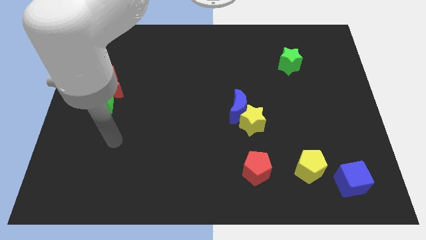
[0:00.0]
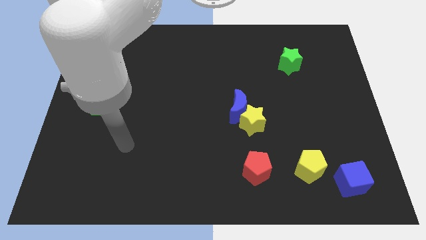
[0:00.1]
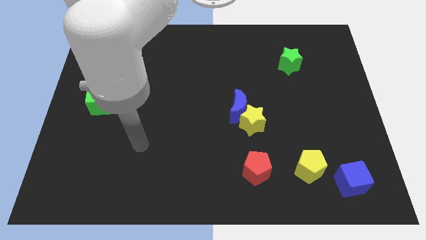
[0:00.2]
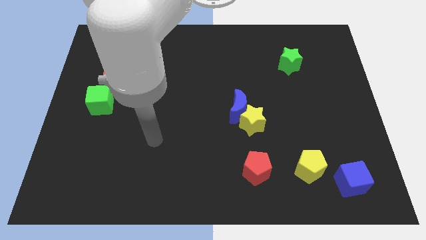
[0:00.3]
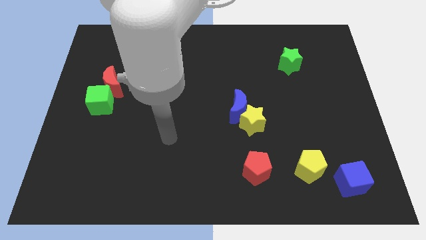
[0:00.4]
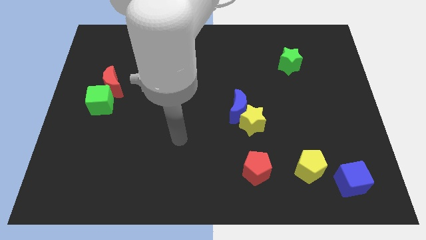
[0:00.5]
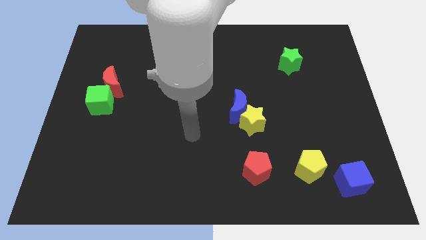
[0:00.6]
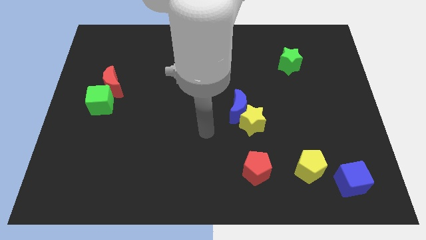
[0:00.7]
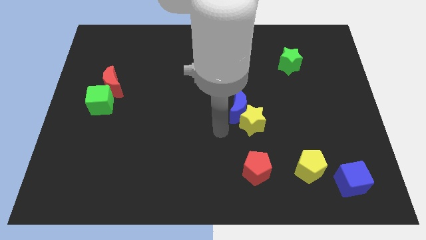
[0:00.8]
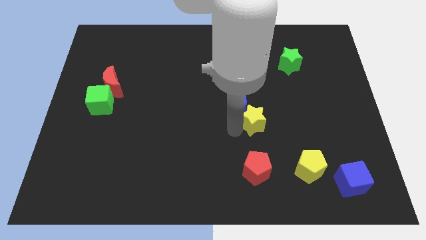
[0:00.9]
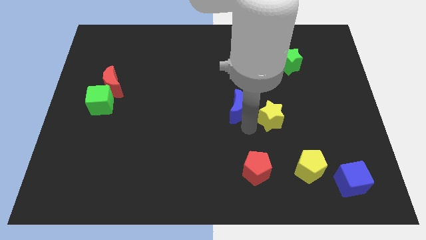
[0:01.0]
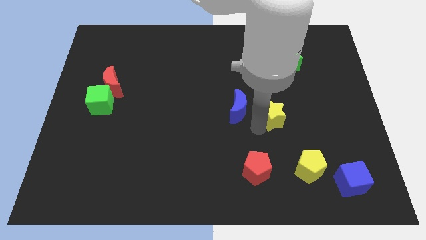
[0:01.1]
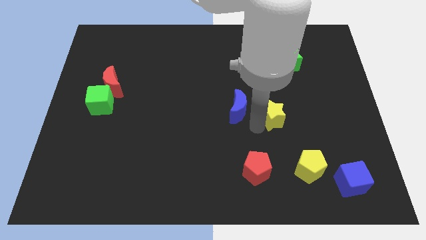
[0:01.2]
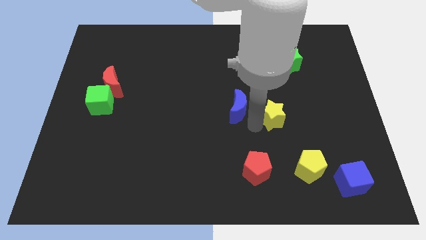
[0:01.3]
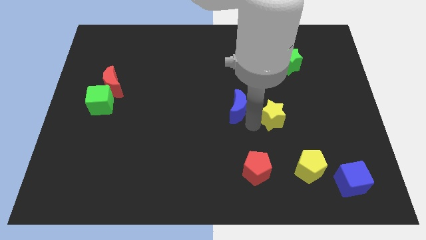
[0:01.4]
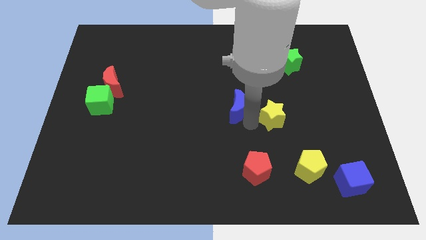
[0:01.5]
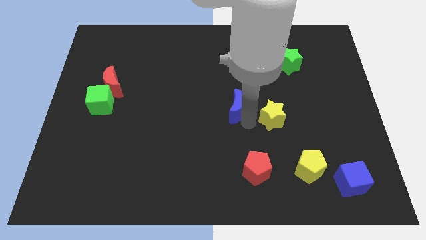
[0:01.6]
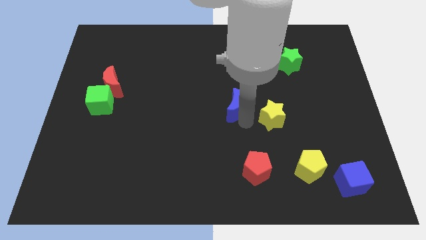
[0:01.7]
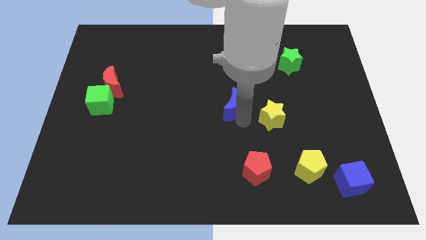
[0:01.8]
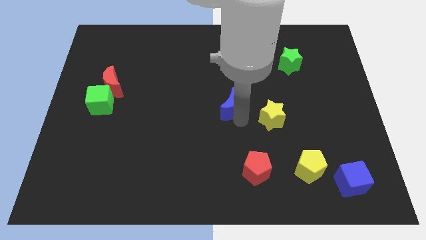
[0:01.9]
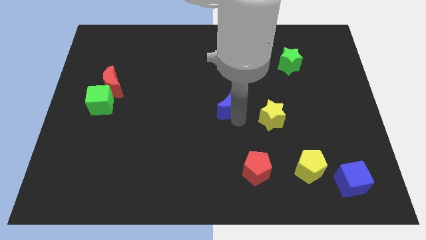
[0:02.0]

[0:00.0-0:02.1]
move the blue moon away from the yellow star

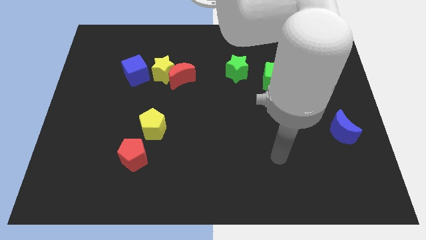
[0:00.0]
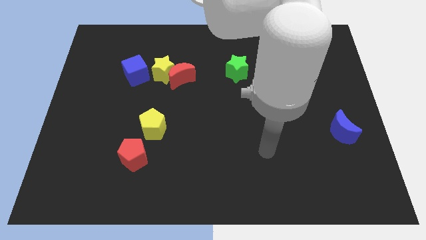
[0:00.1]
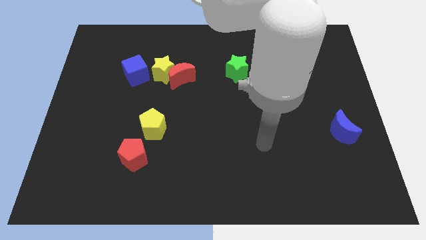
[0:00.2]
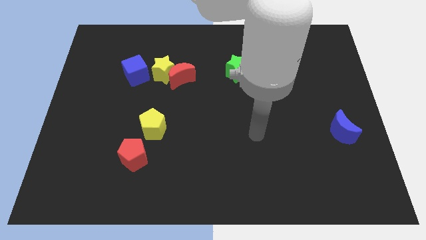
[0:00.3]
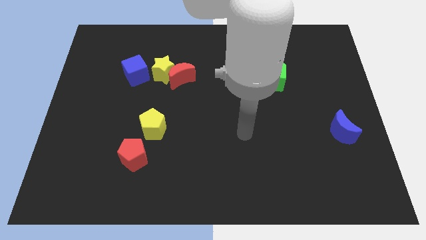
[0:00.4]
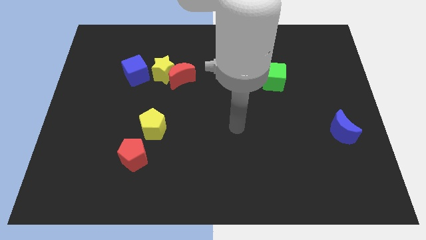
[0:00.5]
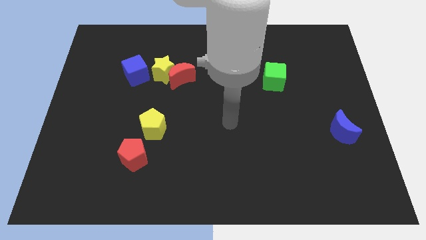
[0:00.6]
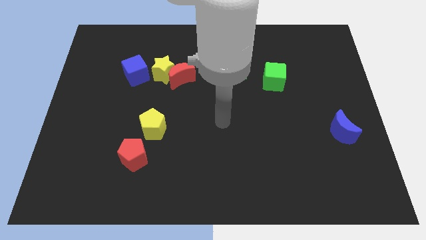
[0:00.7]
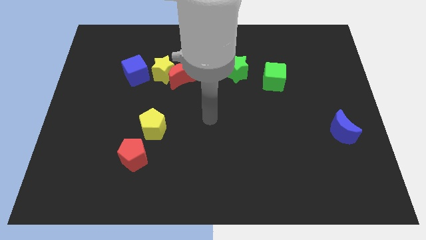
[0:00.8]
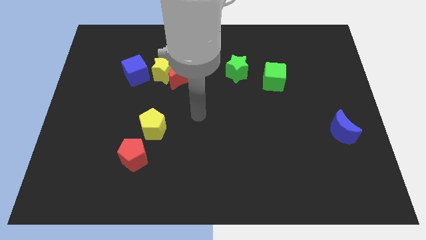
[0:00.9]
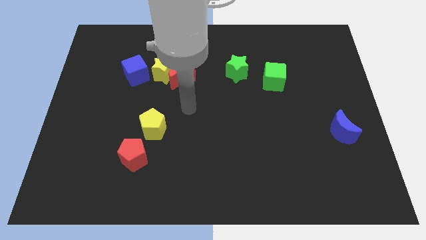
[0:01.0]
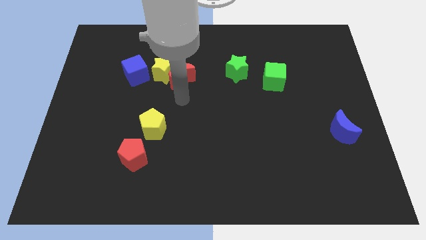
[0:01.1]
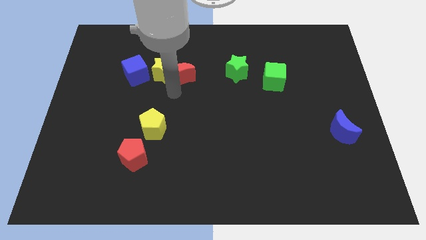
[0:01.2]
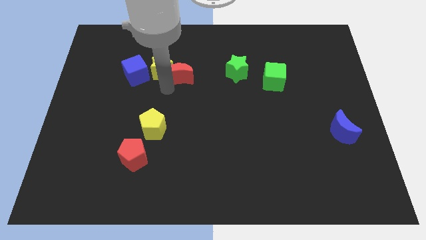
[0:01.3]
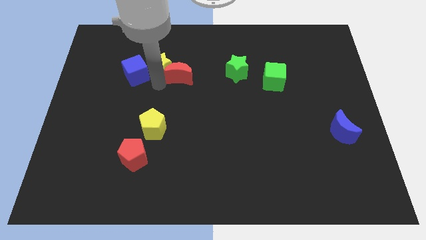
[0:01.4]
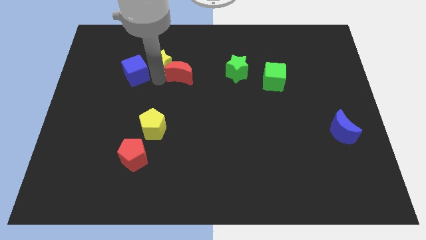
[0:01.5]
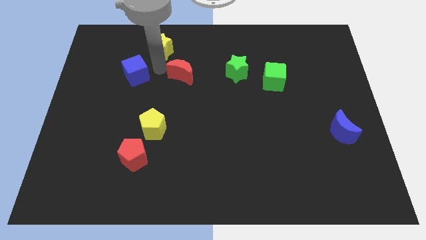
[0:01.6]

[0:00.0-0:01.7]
pull the red moon apart from the yellow star

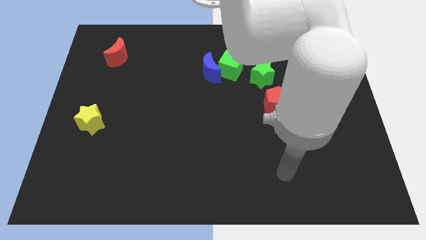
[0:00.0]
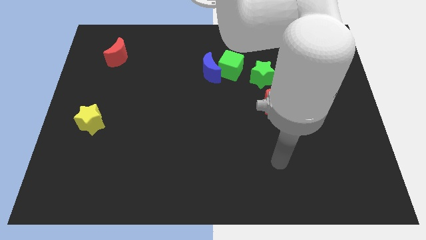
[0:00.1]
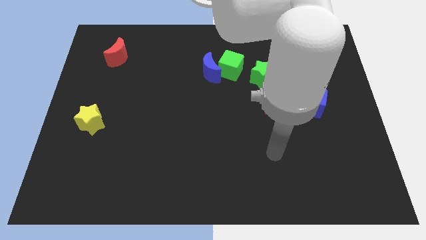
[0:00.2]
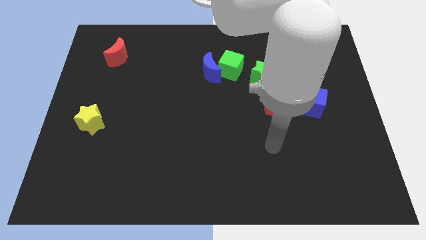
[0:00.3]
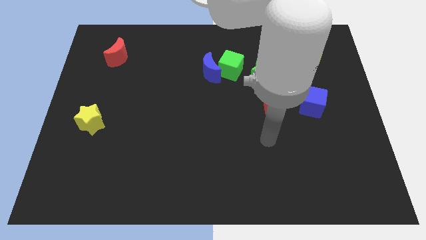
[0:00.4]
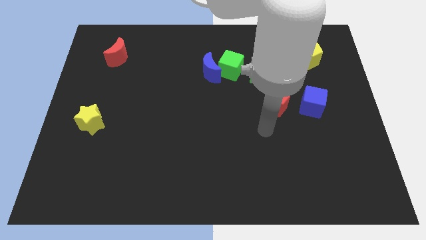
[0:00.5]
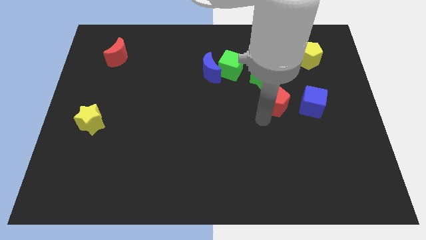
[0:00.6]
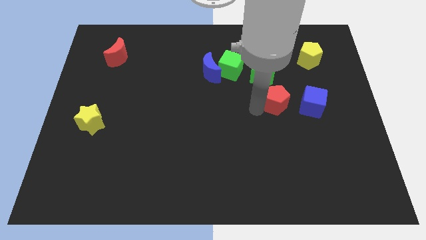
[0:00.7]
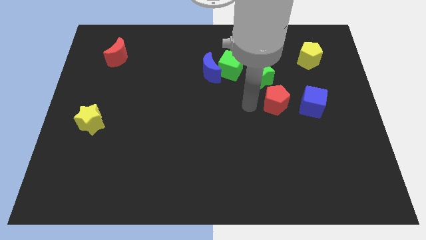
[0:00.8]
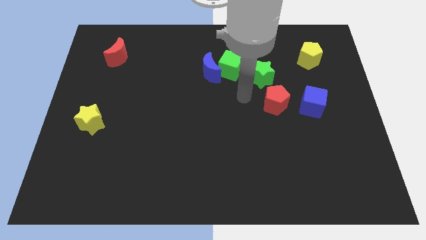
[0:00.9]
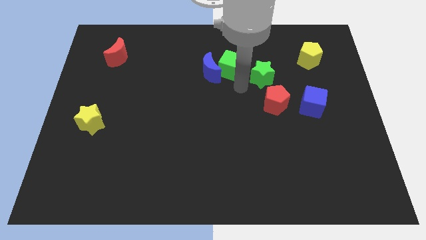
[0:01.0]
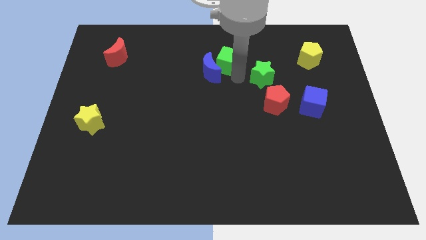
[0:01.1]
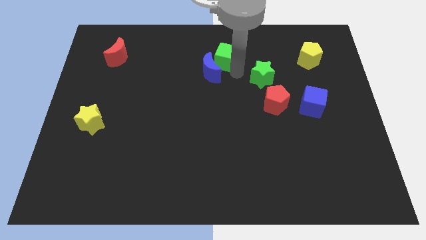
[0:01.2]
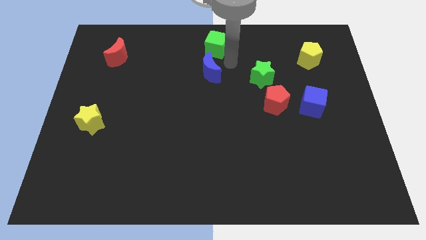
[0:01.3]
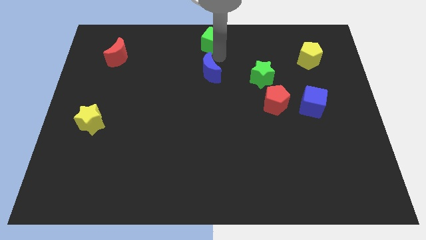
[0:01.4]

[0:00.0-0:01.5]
separate the blue moon from the green cube

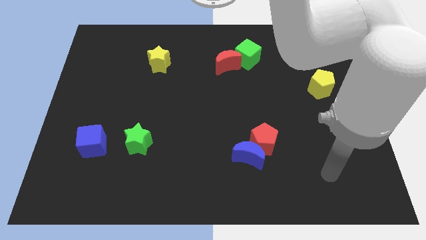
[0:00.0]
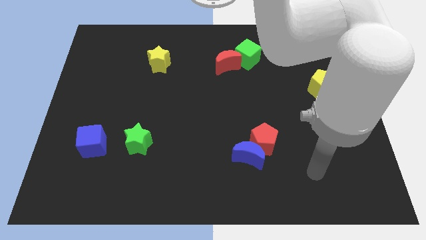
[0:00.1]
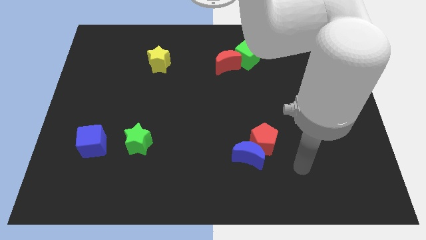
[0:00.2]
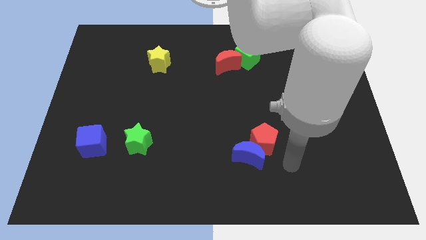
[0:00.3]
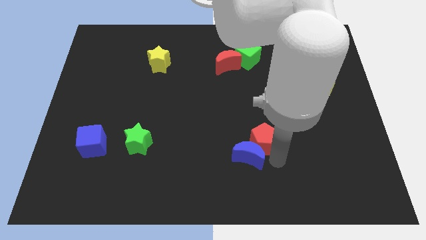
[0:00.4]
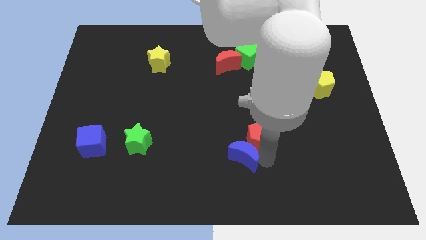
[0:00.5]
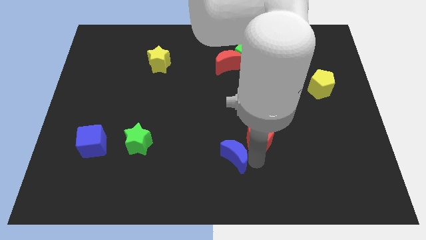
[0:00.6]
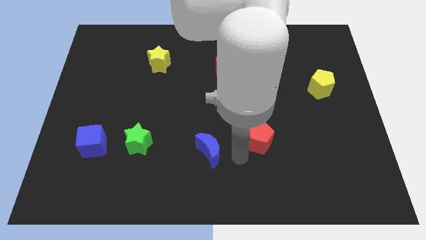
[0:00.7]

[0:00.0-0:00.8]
separate the red pentagon from the blue moon

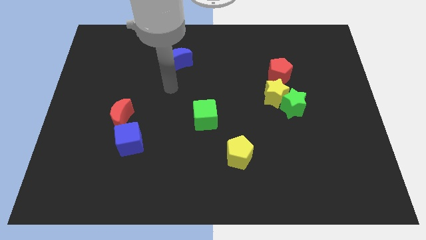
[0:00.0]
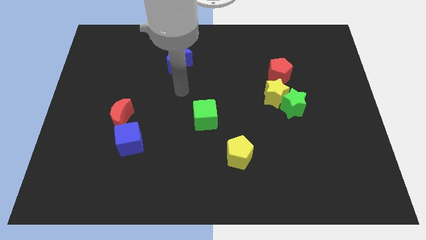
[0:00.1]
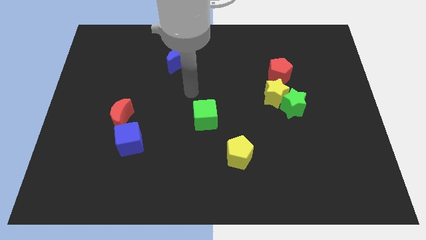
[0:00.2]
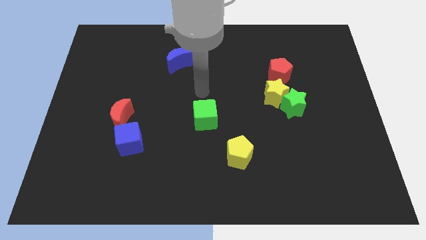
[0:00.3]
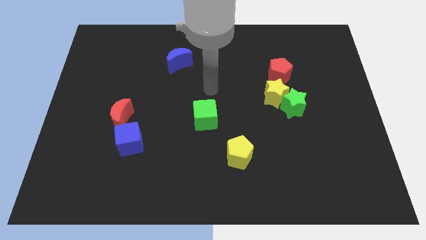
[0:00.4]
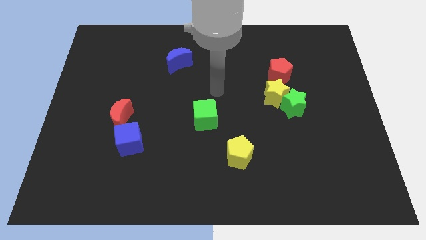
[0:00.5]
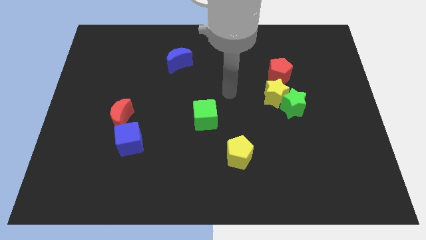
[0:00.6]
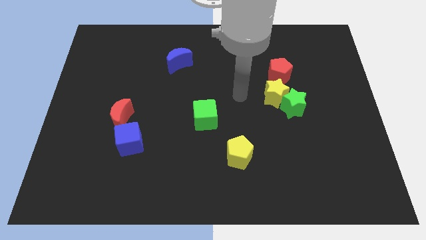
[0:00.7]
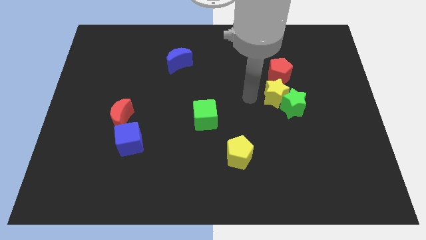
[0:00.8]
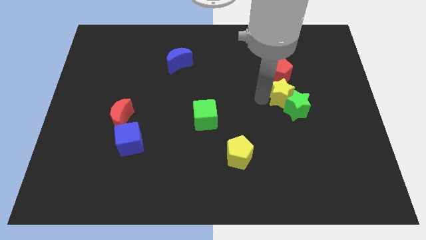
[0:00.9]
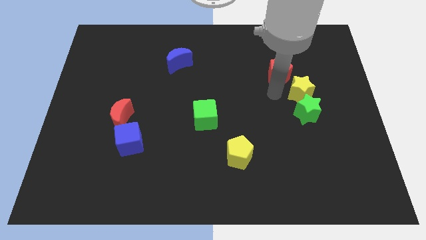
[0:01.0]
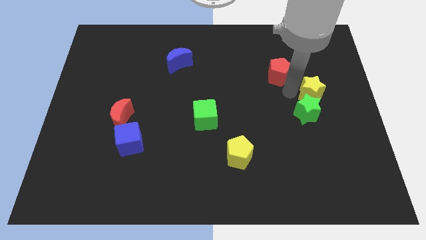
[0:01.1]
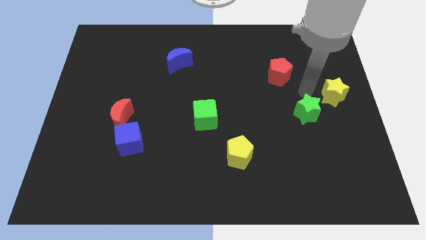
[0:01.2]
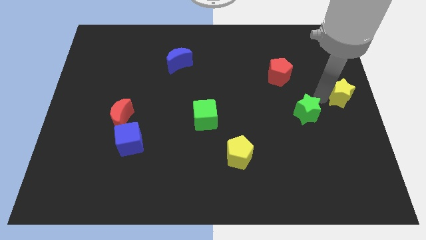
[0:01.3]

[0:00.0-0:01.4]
move the green star away from the yellow star

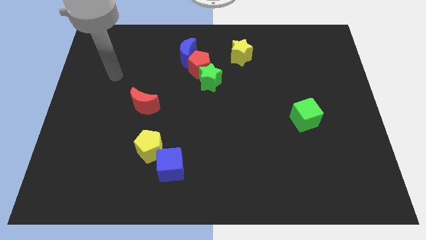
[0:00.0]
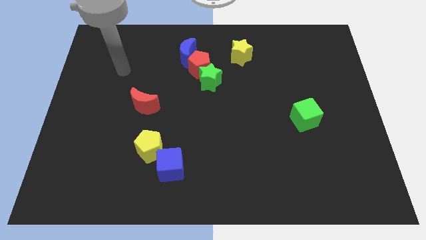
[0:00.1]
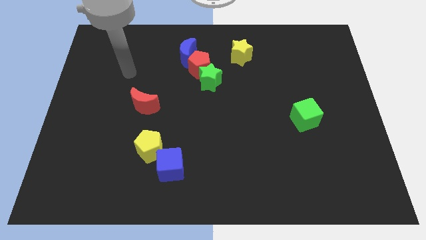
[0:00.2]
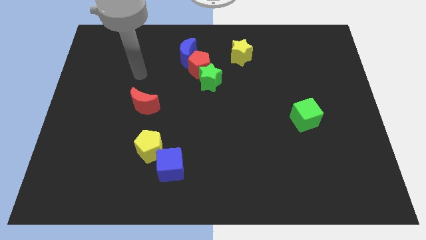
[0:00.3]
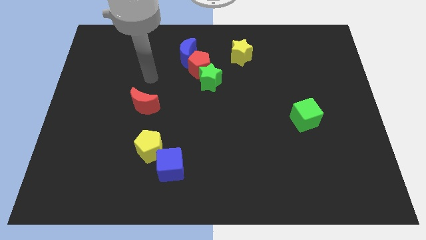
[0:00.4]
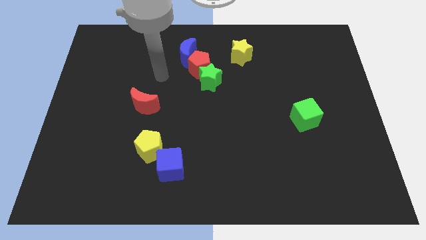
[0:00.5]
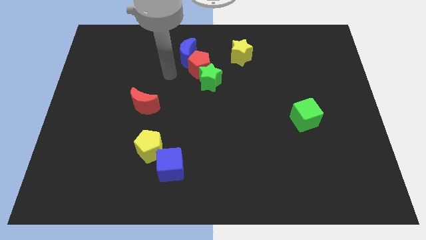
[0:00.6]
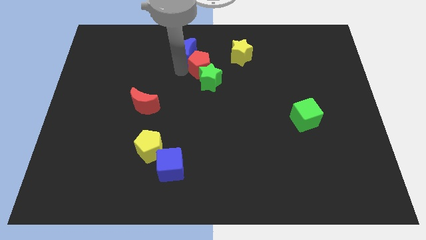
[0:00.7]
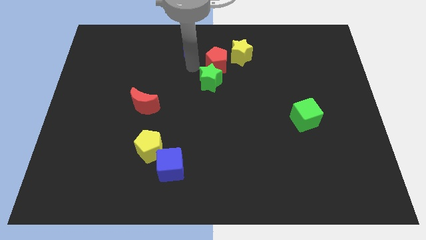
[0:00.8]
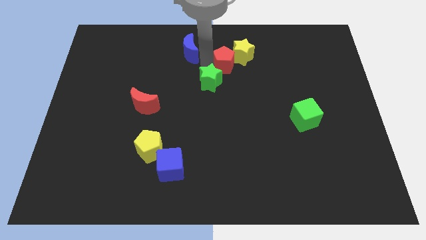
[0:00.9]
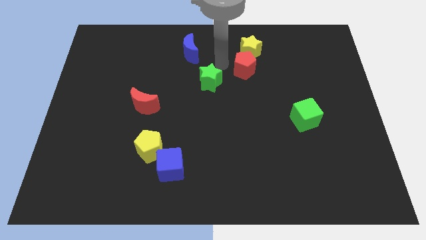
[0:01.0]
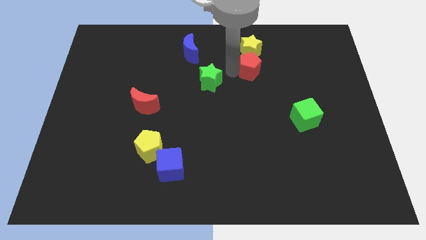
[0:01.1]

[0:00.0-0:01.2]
move the green star away from the red pentagon

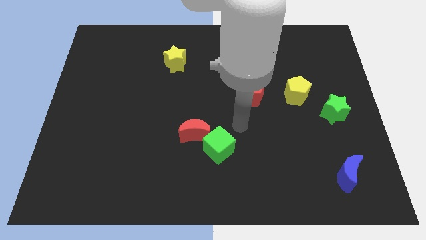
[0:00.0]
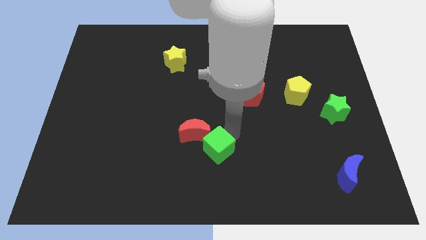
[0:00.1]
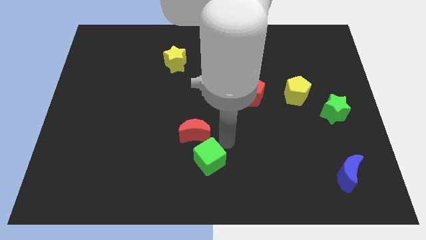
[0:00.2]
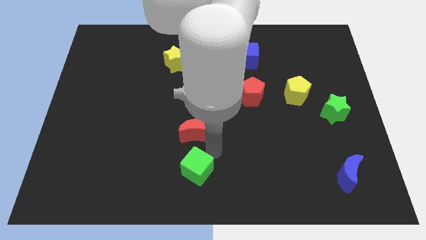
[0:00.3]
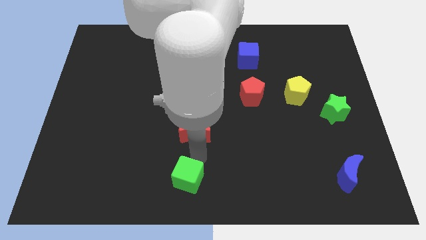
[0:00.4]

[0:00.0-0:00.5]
pull the red moon apart from the green cube

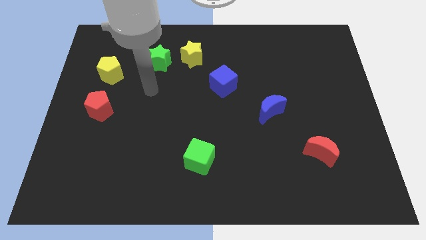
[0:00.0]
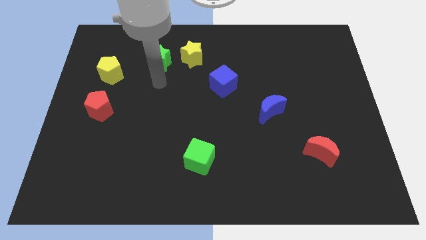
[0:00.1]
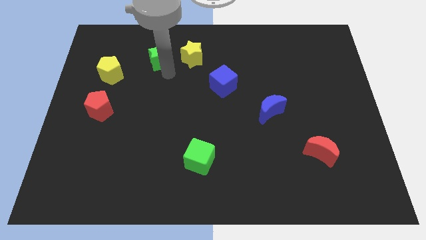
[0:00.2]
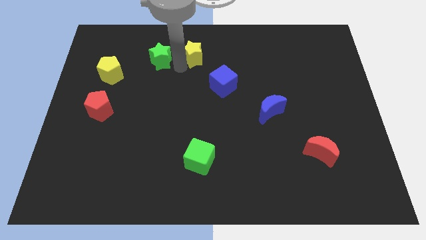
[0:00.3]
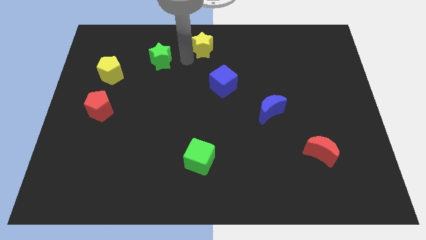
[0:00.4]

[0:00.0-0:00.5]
pull the green star apart from the yellow star
